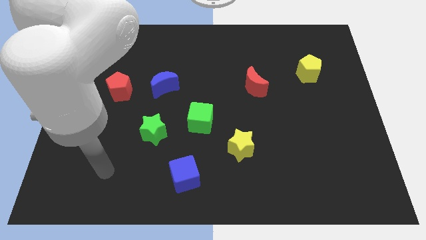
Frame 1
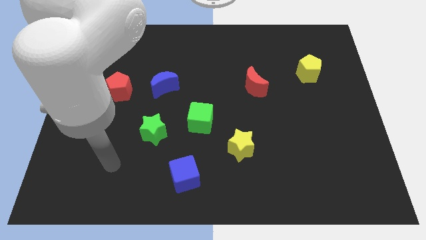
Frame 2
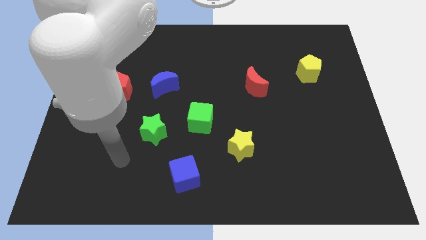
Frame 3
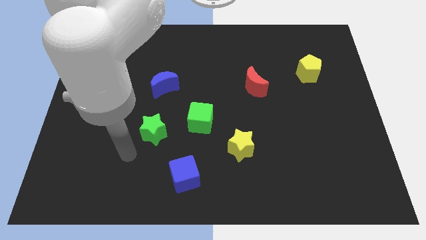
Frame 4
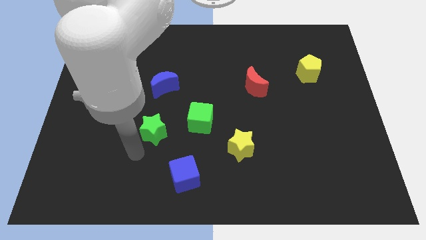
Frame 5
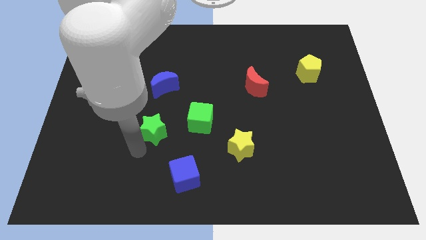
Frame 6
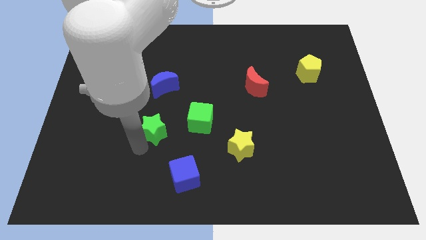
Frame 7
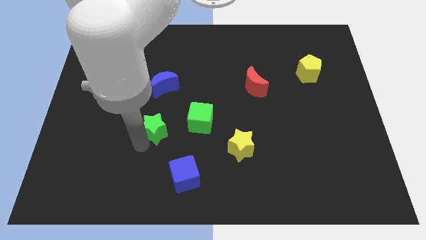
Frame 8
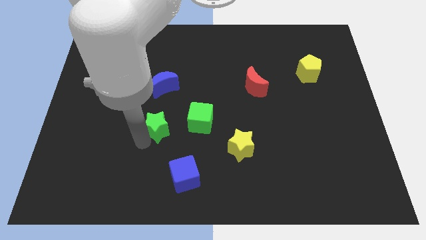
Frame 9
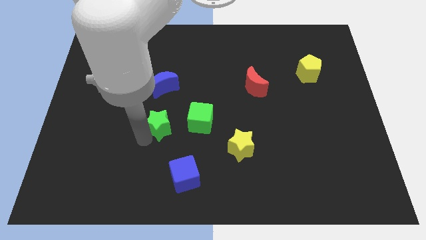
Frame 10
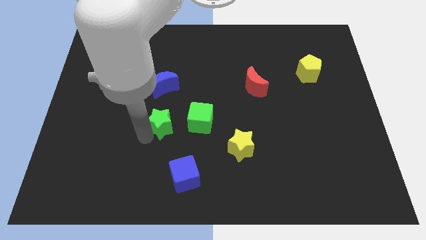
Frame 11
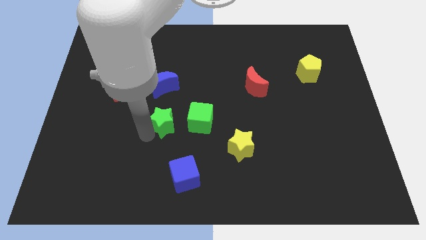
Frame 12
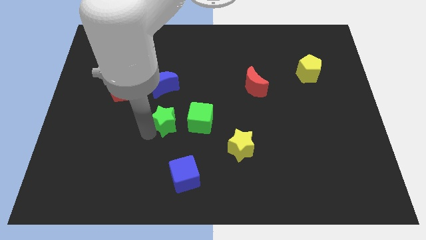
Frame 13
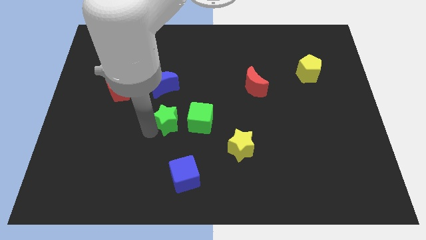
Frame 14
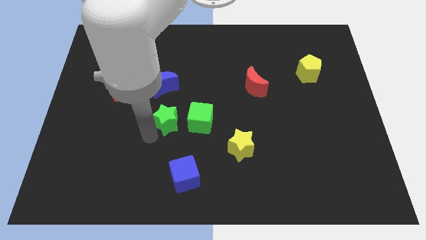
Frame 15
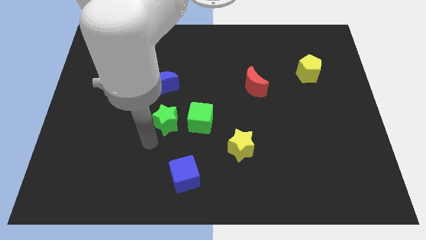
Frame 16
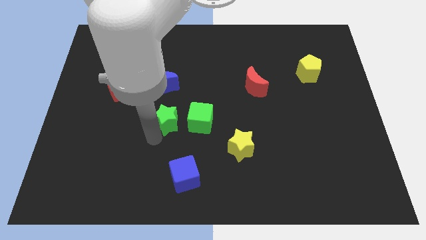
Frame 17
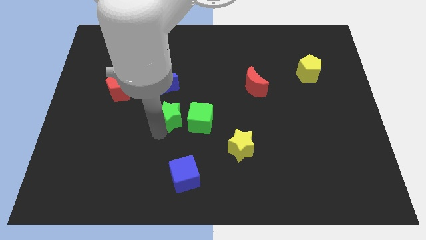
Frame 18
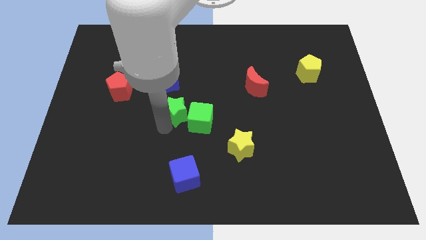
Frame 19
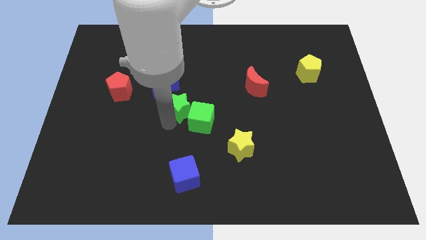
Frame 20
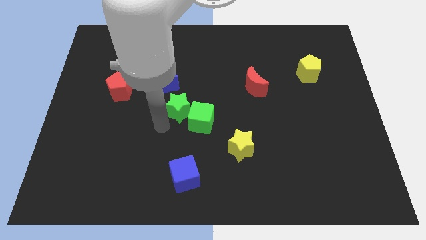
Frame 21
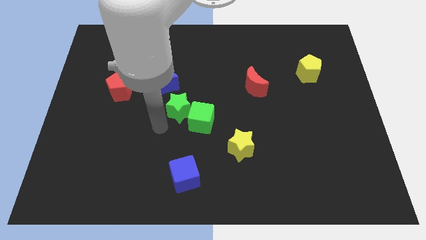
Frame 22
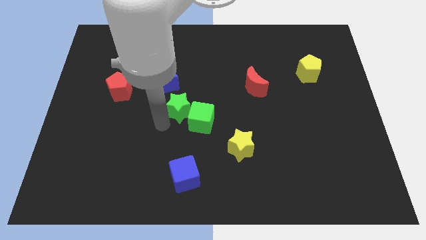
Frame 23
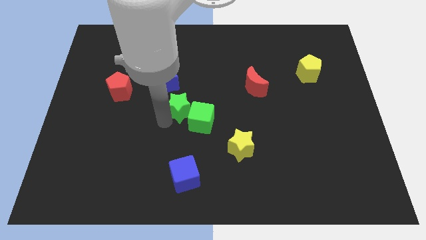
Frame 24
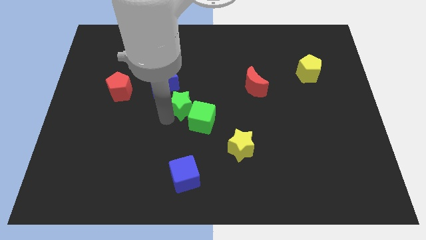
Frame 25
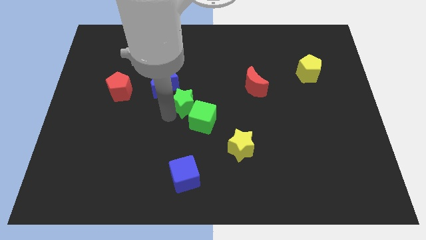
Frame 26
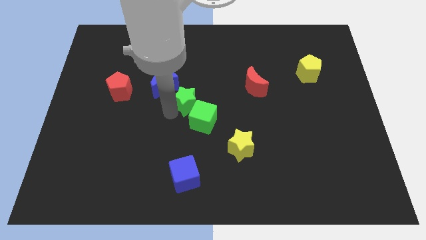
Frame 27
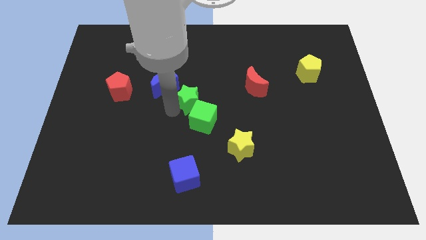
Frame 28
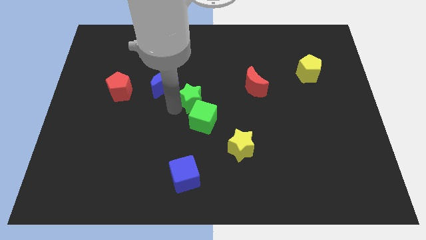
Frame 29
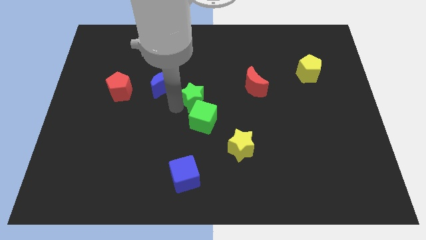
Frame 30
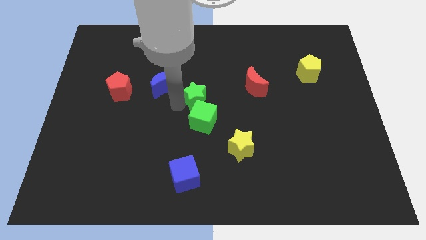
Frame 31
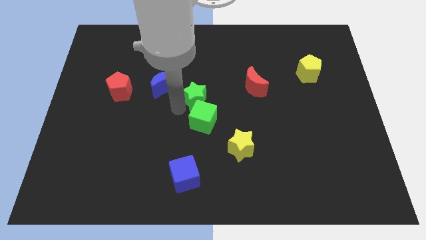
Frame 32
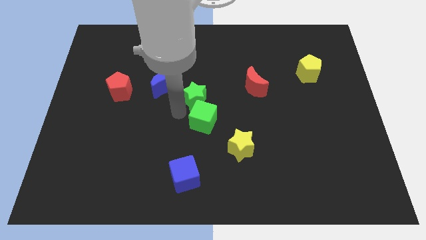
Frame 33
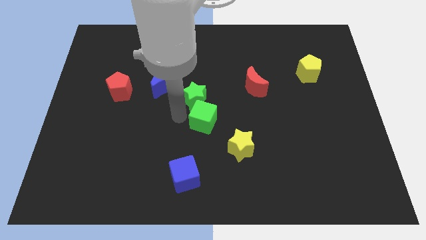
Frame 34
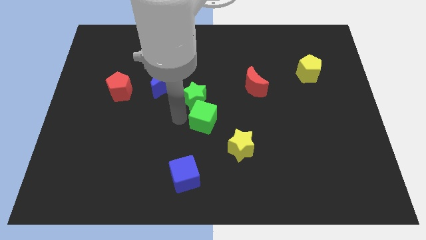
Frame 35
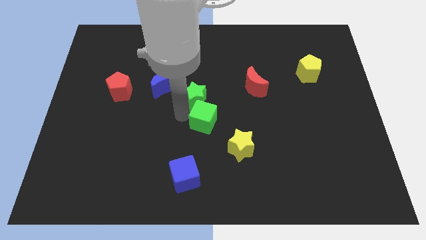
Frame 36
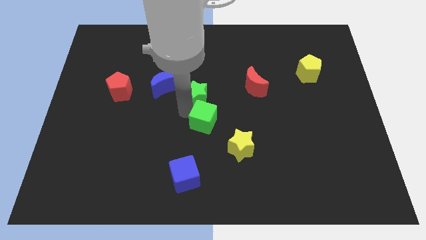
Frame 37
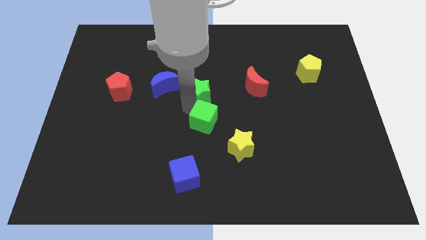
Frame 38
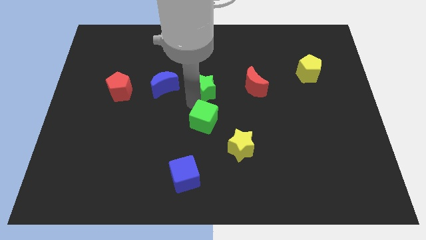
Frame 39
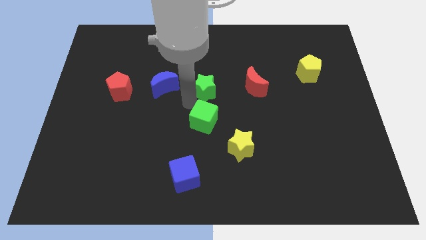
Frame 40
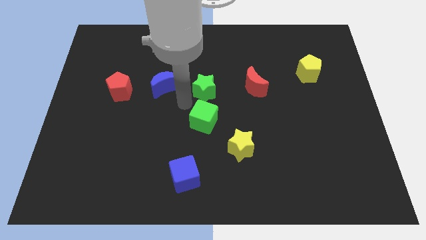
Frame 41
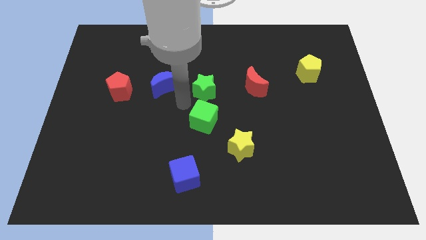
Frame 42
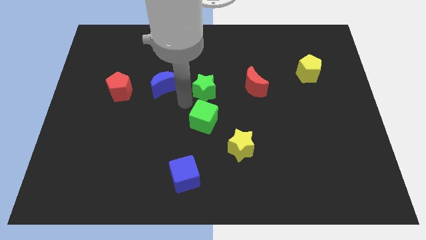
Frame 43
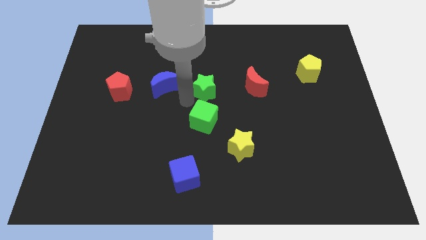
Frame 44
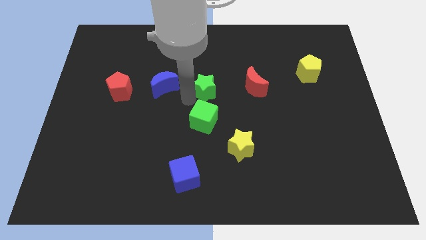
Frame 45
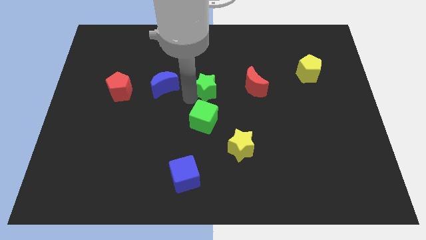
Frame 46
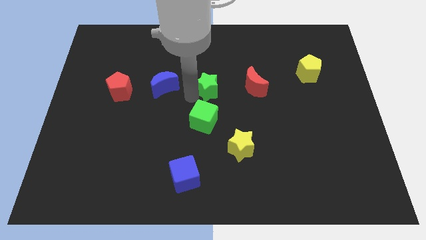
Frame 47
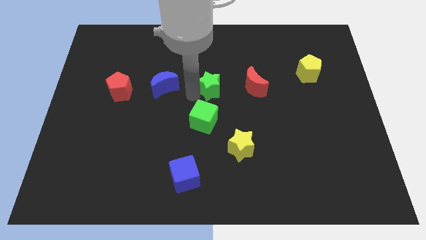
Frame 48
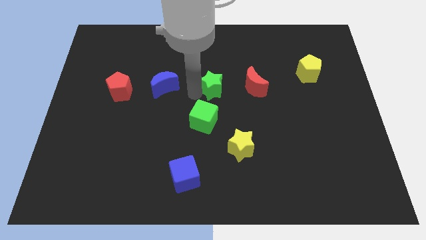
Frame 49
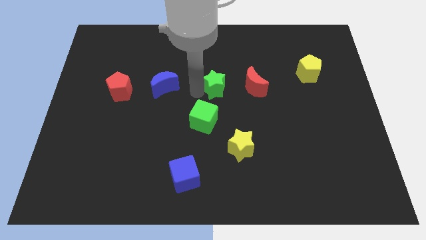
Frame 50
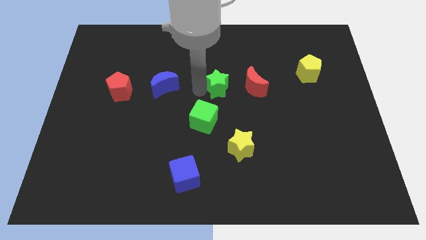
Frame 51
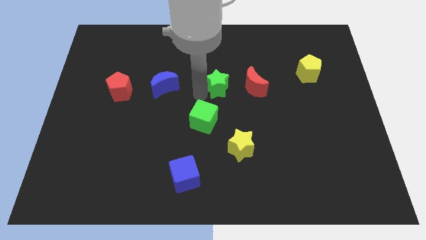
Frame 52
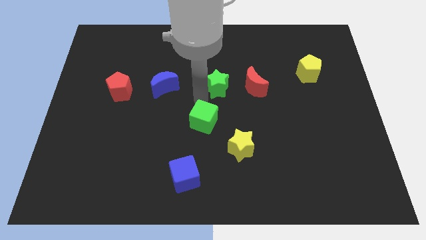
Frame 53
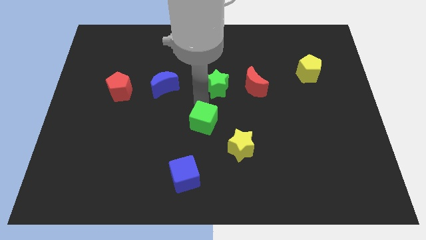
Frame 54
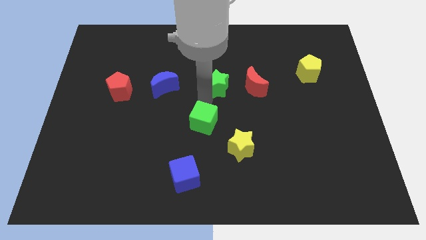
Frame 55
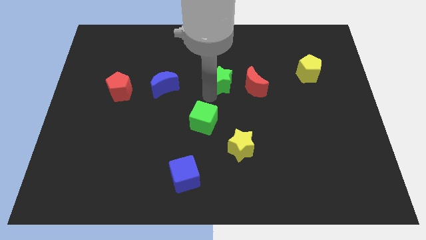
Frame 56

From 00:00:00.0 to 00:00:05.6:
move the green star diagonally up and to the right

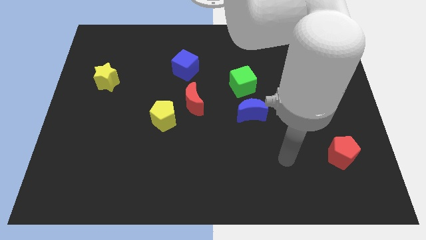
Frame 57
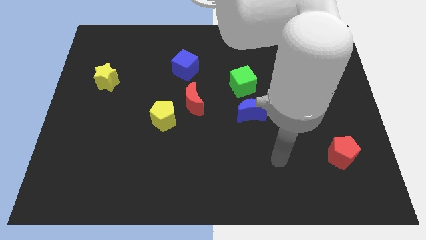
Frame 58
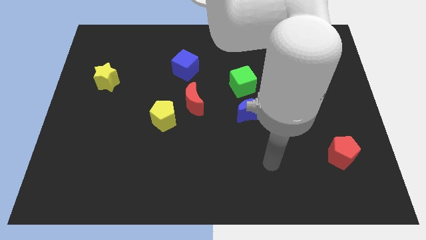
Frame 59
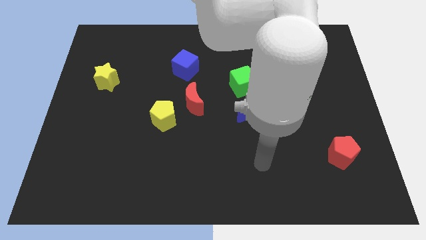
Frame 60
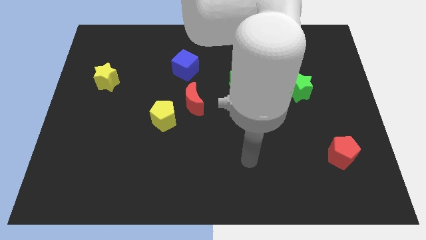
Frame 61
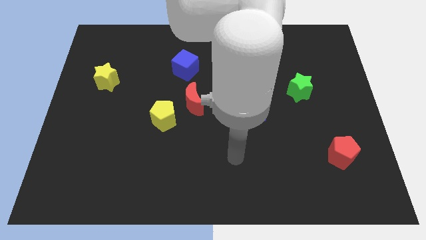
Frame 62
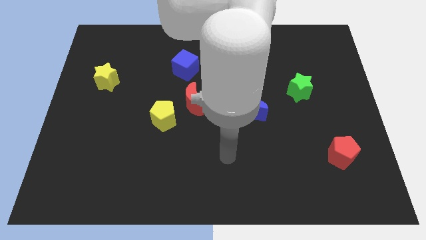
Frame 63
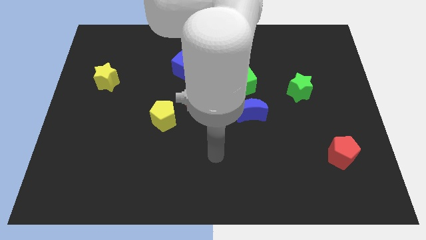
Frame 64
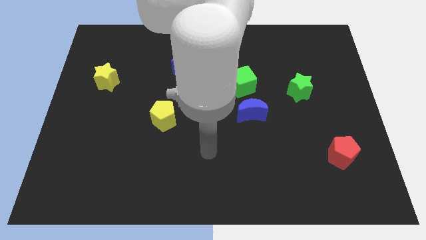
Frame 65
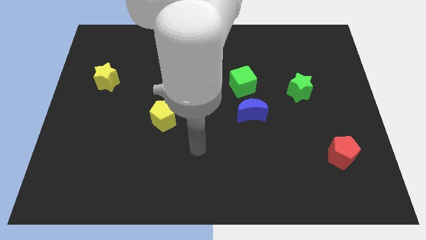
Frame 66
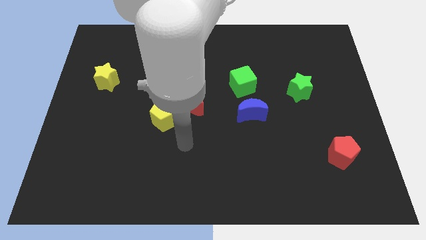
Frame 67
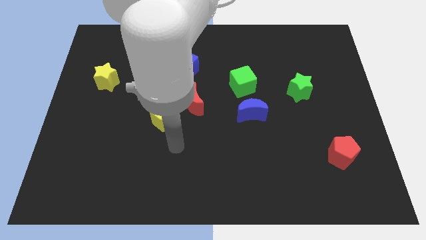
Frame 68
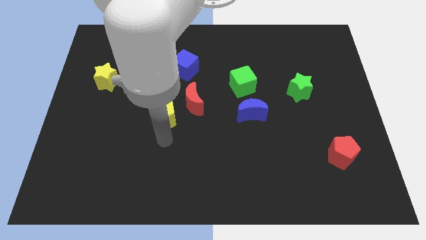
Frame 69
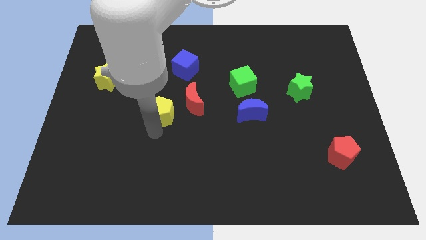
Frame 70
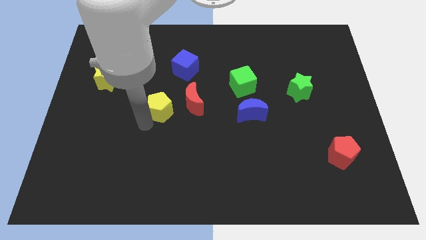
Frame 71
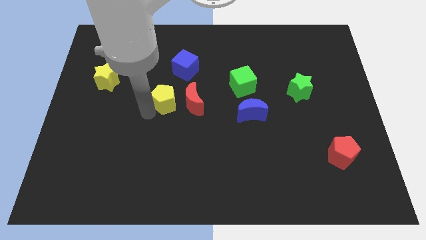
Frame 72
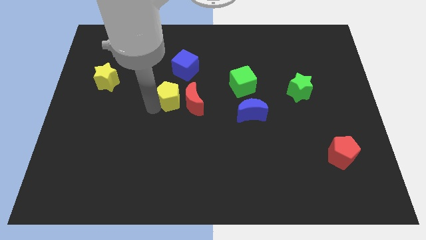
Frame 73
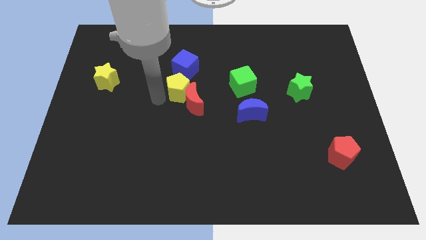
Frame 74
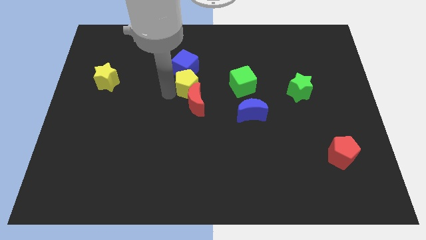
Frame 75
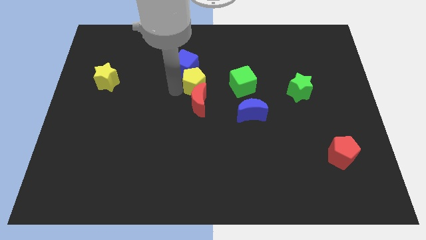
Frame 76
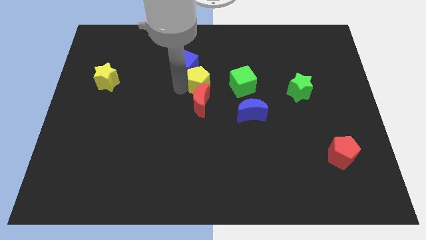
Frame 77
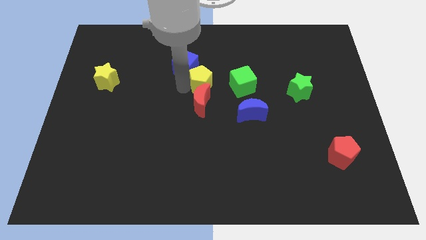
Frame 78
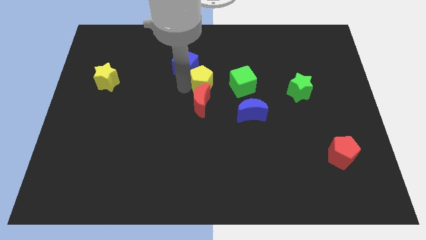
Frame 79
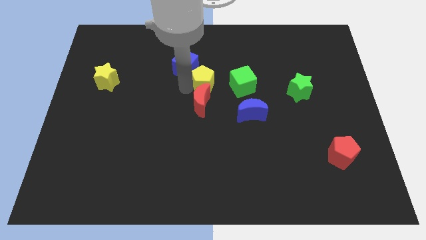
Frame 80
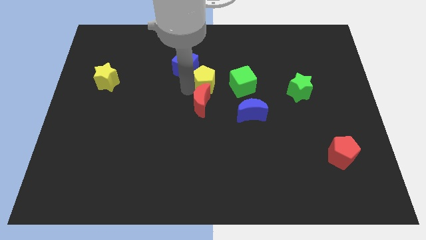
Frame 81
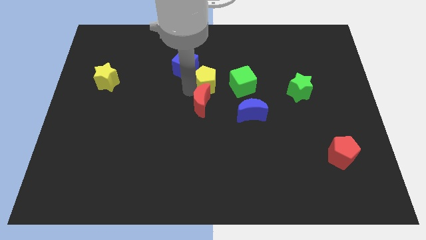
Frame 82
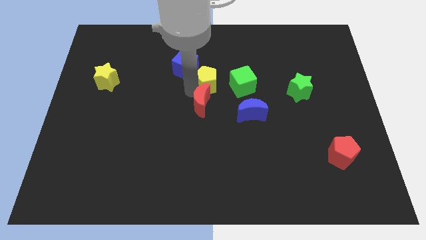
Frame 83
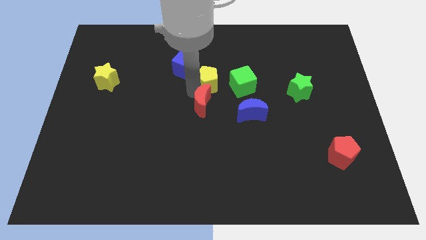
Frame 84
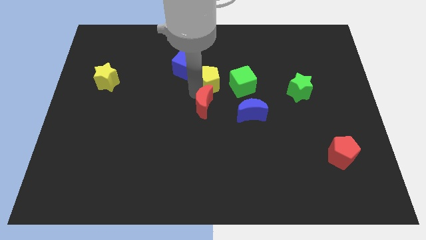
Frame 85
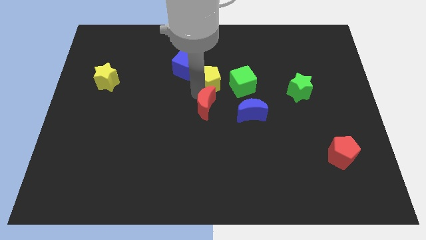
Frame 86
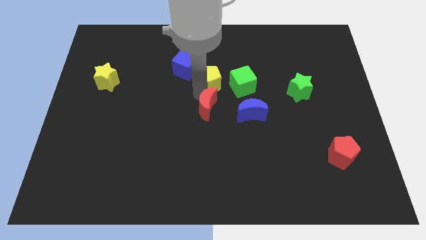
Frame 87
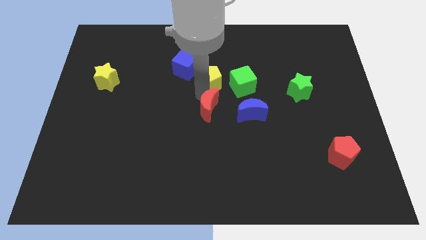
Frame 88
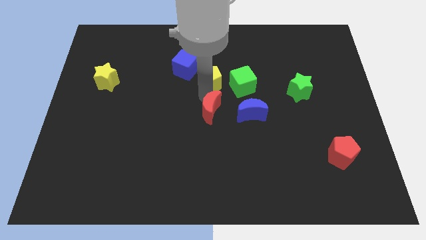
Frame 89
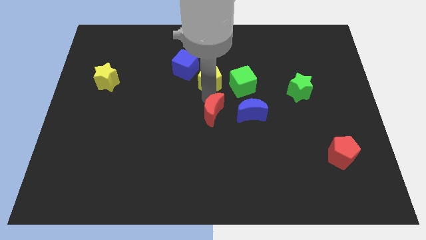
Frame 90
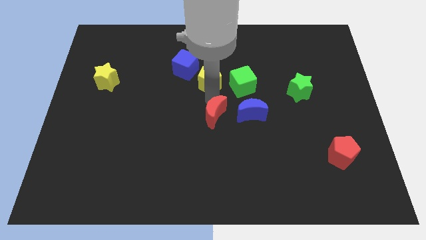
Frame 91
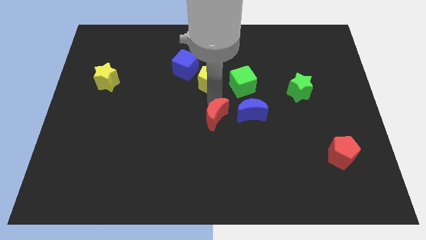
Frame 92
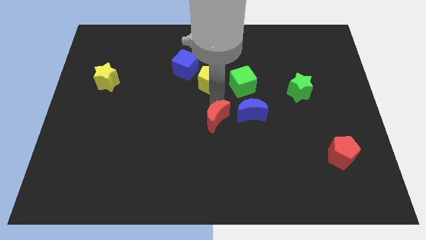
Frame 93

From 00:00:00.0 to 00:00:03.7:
slightly slide the red moon down and then right
